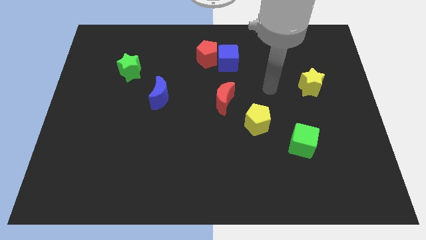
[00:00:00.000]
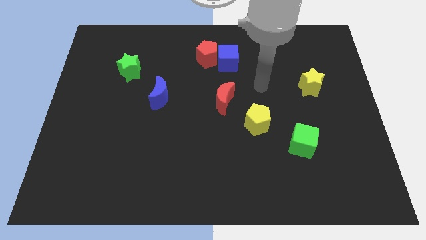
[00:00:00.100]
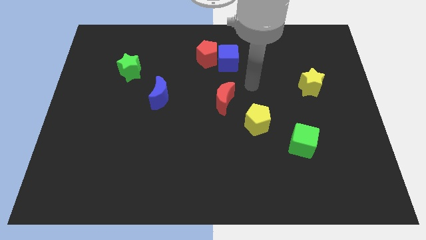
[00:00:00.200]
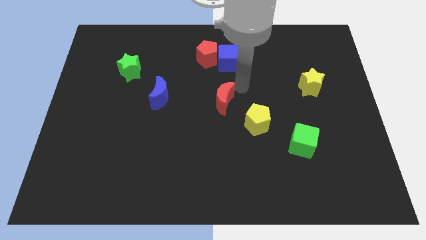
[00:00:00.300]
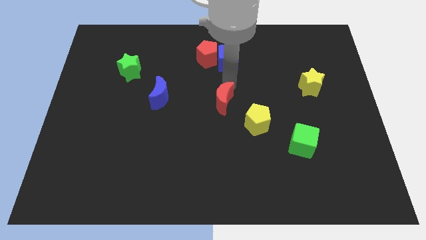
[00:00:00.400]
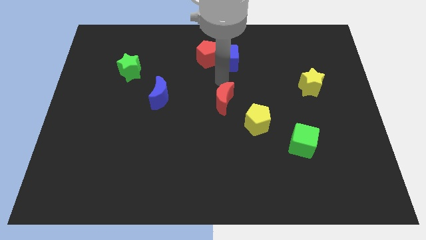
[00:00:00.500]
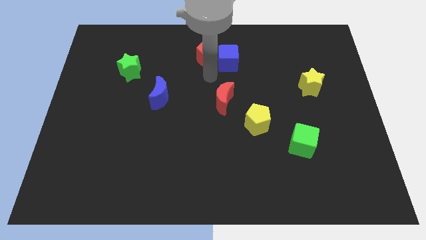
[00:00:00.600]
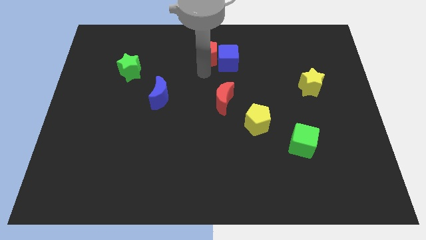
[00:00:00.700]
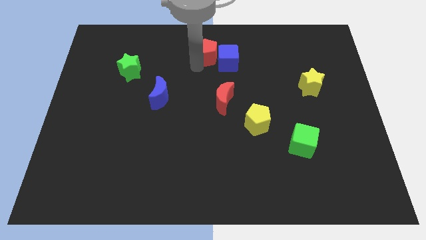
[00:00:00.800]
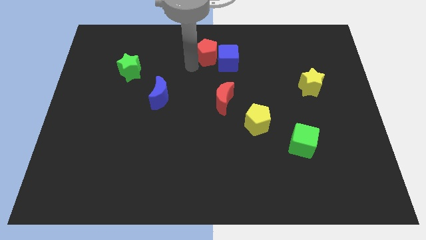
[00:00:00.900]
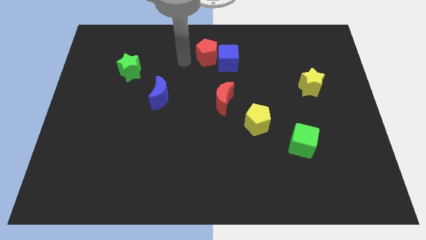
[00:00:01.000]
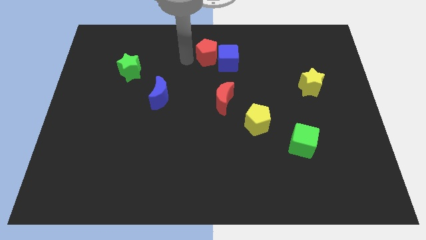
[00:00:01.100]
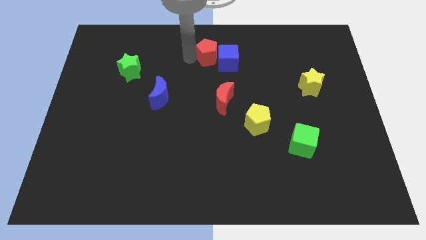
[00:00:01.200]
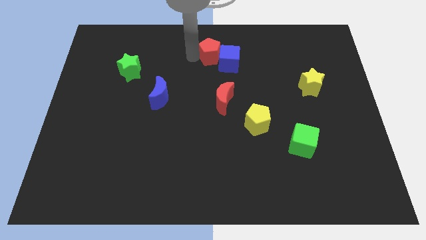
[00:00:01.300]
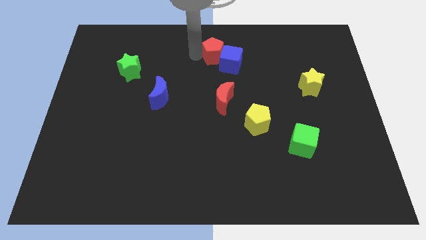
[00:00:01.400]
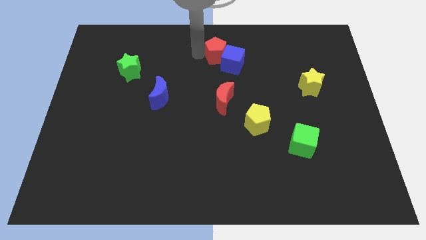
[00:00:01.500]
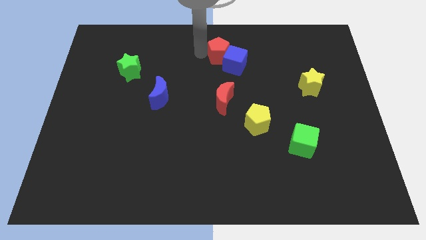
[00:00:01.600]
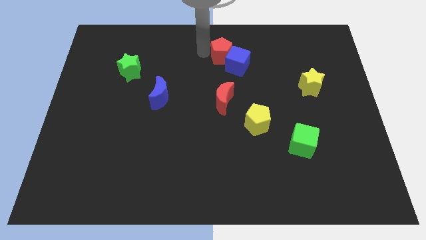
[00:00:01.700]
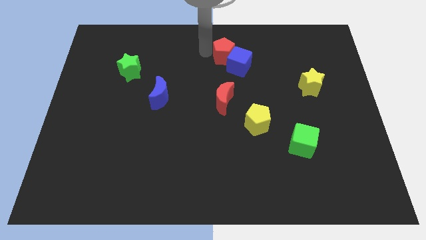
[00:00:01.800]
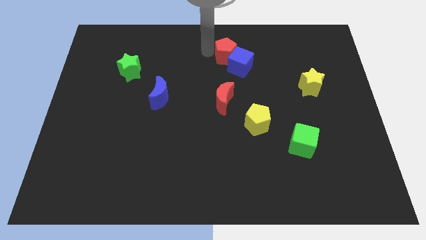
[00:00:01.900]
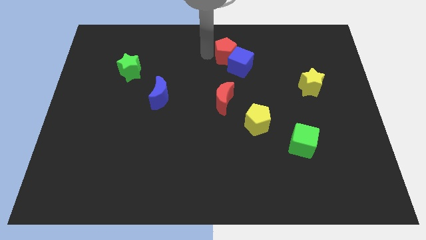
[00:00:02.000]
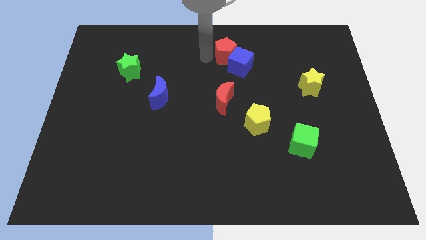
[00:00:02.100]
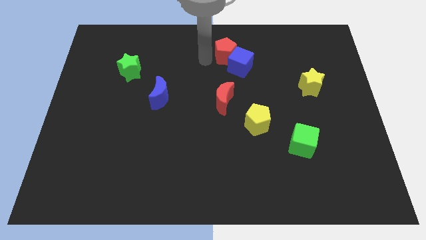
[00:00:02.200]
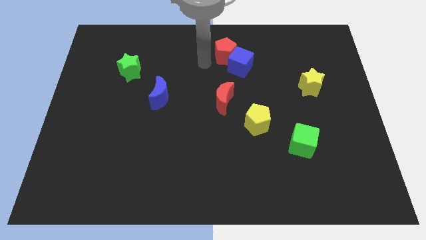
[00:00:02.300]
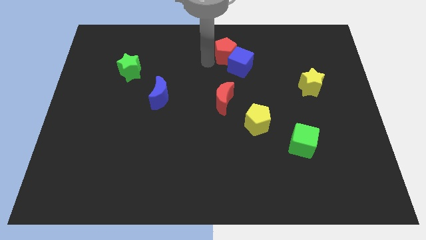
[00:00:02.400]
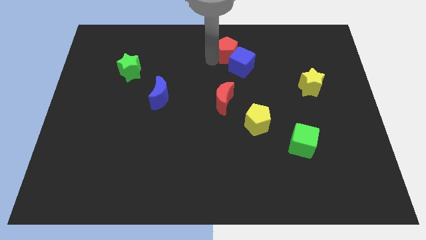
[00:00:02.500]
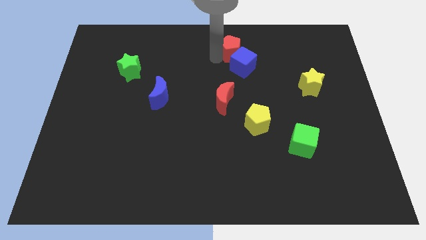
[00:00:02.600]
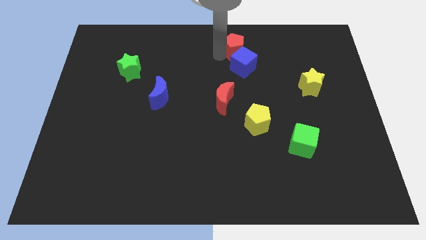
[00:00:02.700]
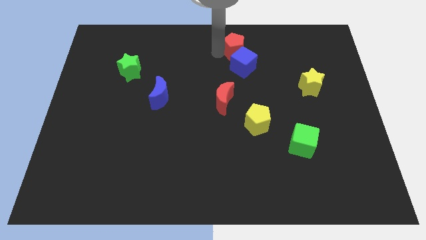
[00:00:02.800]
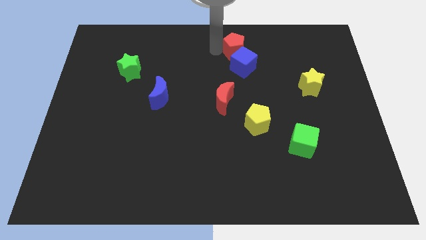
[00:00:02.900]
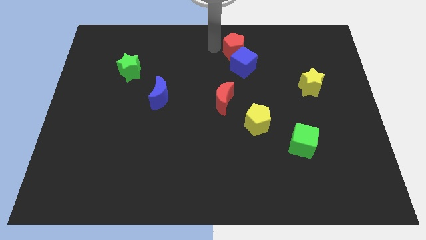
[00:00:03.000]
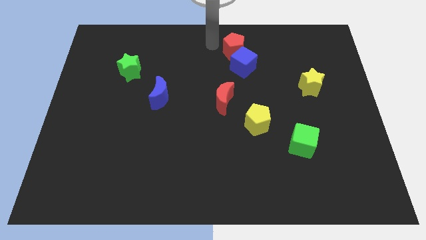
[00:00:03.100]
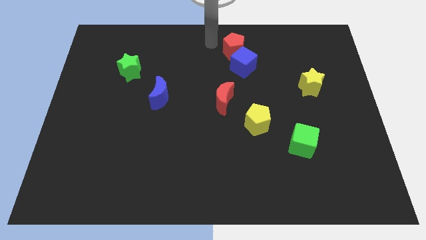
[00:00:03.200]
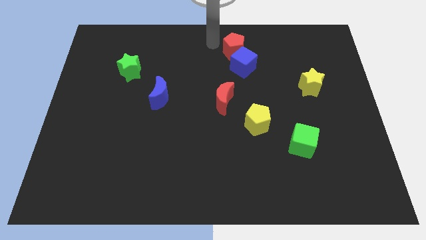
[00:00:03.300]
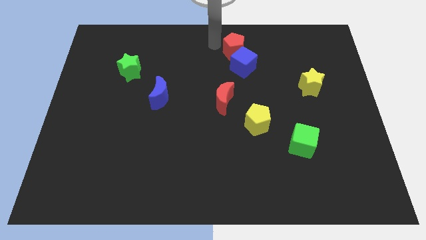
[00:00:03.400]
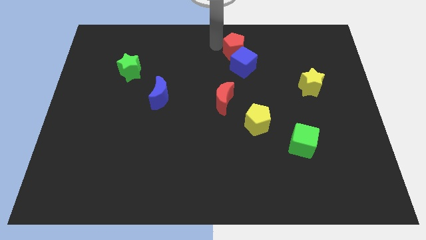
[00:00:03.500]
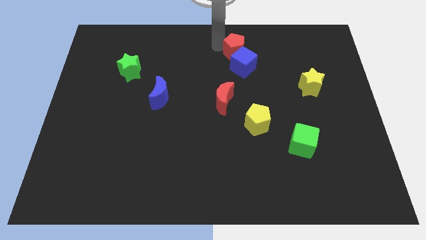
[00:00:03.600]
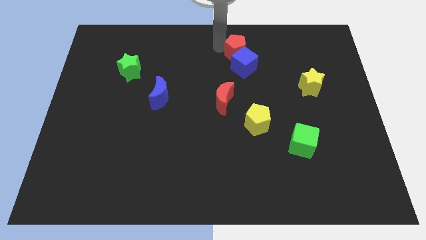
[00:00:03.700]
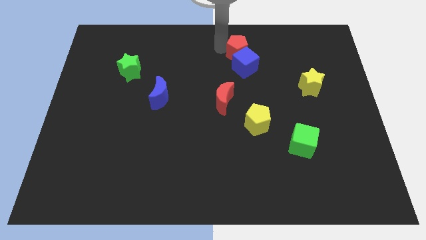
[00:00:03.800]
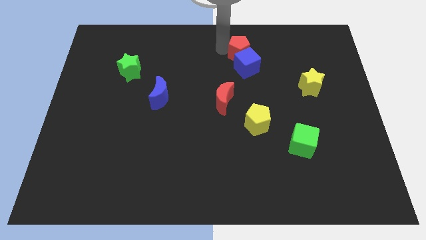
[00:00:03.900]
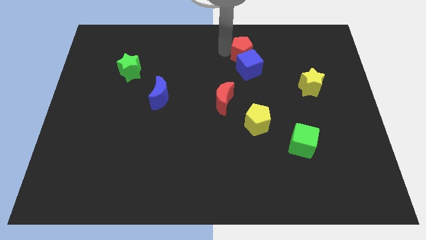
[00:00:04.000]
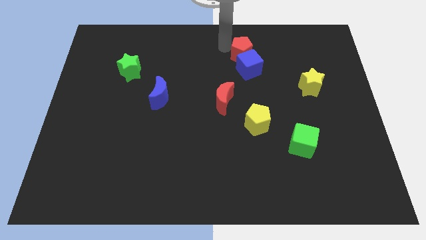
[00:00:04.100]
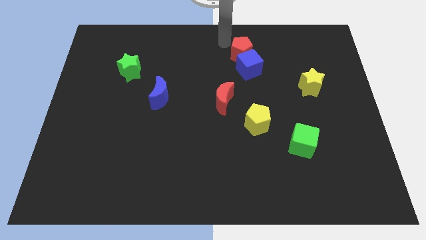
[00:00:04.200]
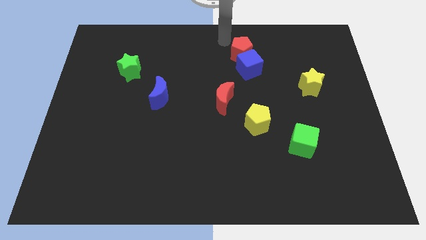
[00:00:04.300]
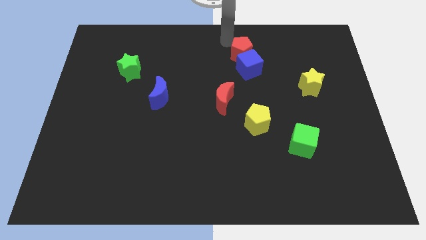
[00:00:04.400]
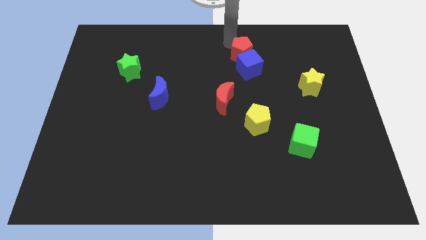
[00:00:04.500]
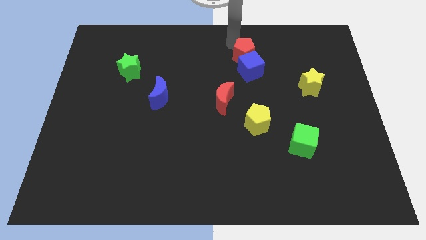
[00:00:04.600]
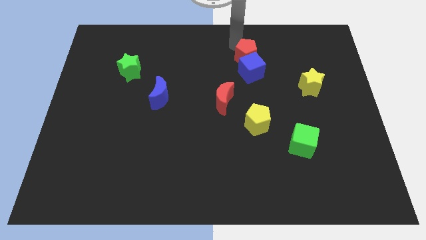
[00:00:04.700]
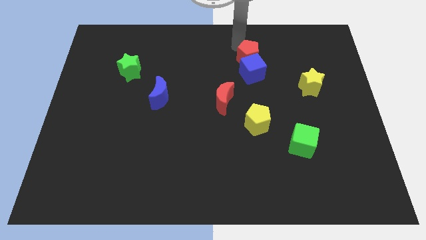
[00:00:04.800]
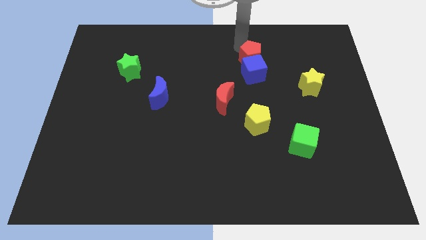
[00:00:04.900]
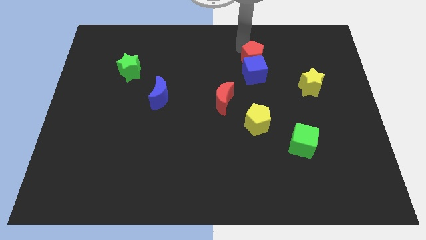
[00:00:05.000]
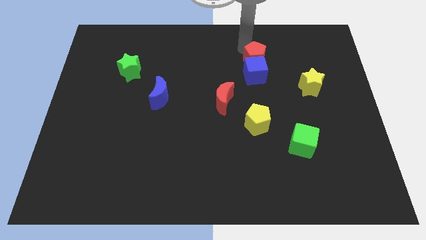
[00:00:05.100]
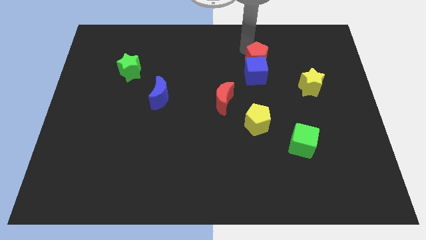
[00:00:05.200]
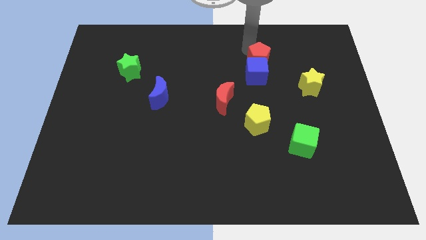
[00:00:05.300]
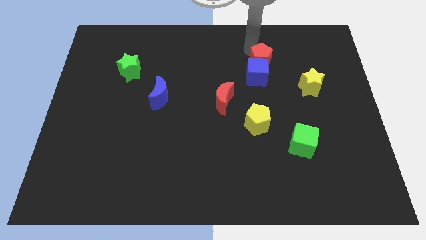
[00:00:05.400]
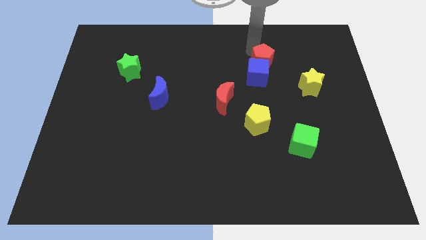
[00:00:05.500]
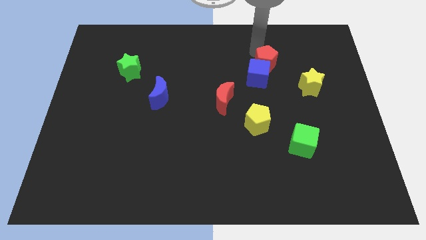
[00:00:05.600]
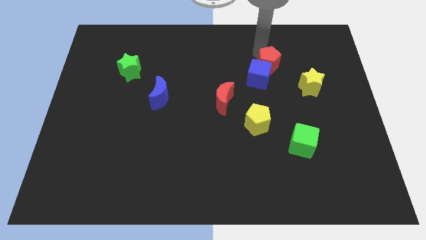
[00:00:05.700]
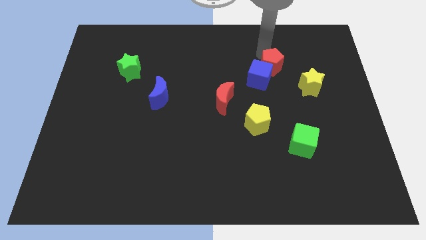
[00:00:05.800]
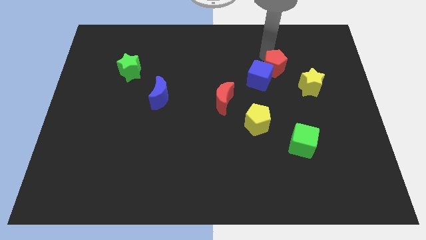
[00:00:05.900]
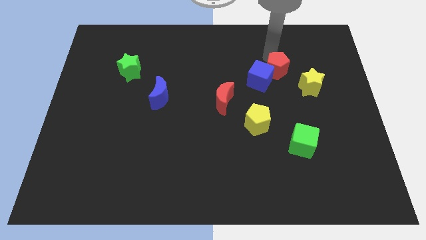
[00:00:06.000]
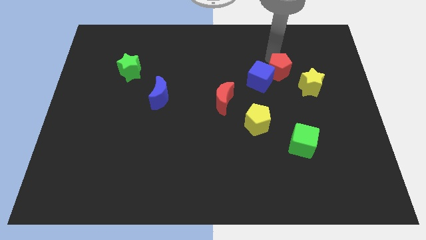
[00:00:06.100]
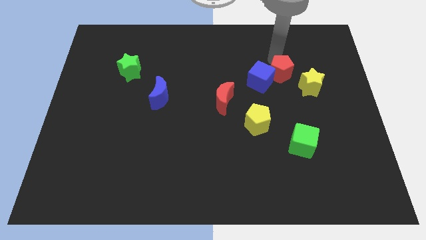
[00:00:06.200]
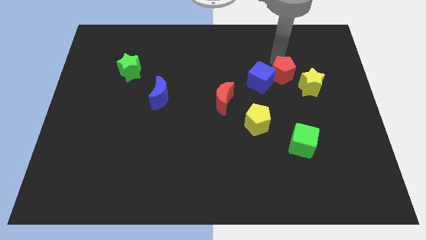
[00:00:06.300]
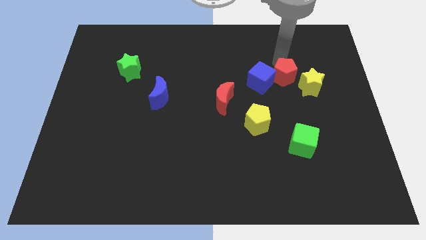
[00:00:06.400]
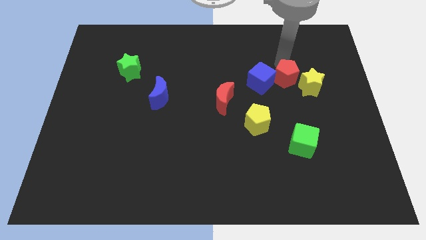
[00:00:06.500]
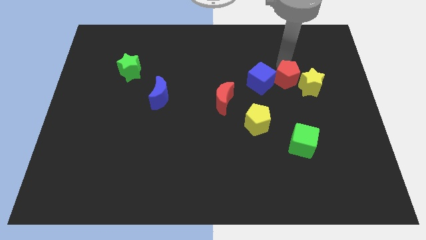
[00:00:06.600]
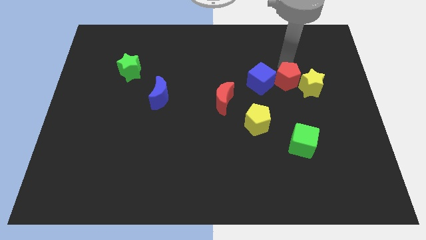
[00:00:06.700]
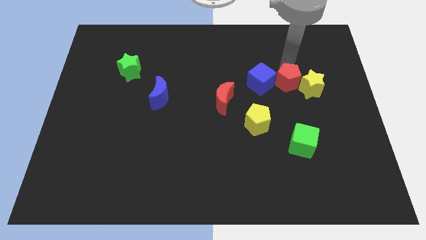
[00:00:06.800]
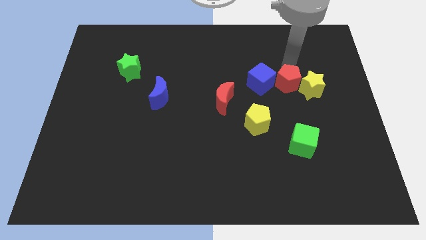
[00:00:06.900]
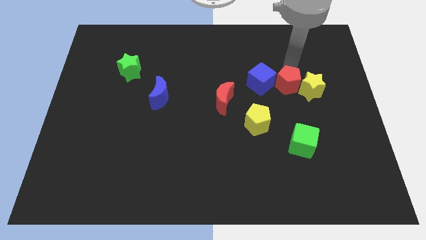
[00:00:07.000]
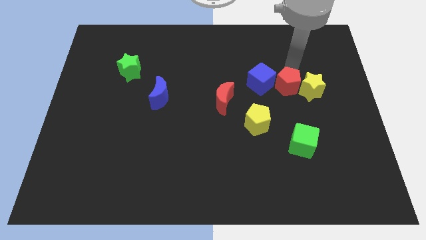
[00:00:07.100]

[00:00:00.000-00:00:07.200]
slide the red pentagon to the bottom left side of the yellow star

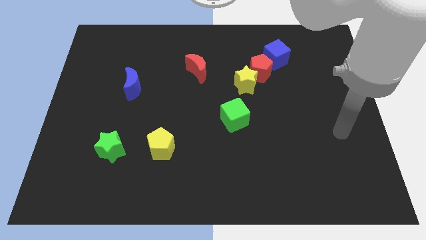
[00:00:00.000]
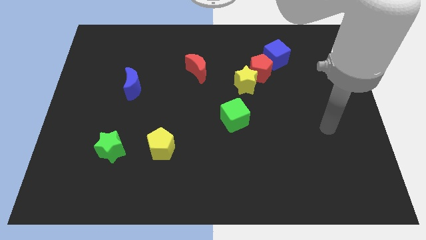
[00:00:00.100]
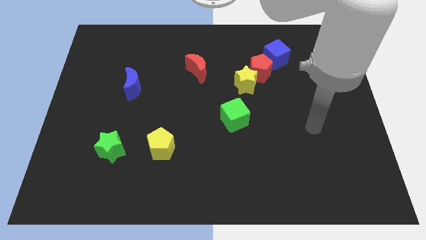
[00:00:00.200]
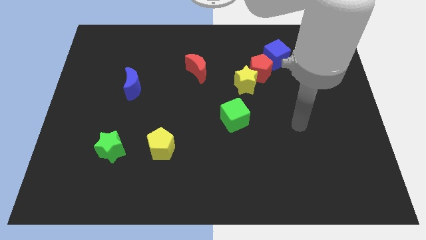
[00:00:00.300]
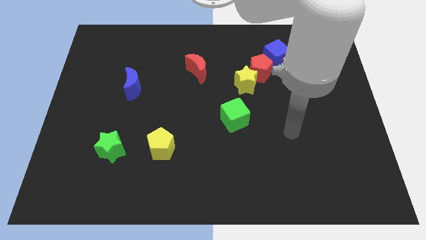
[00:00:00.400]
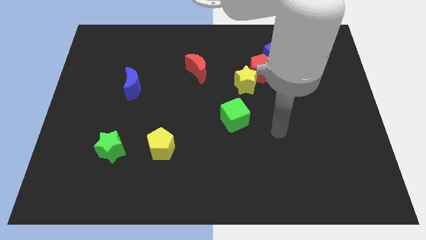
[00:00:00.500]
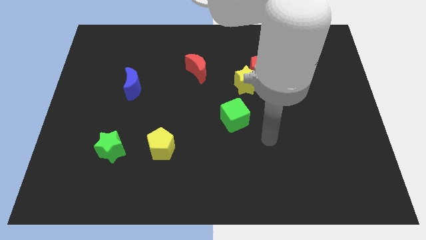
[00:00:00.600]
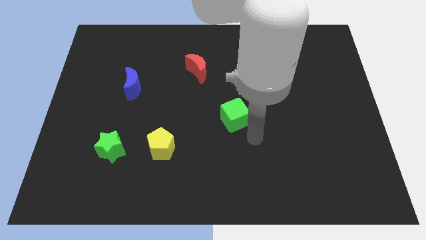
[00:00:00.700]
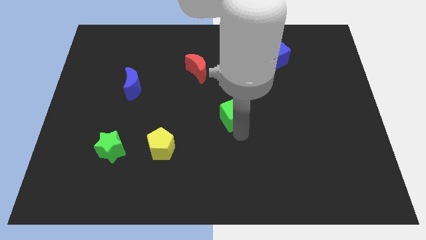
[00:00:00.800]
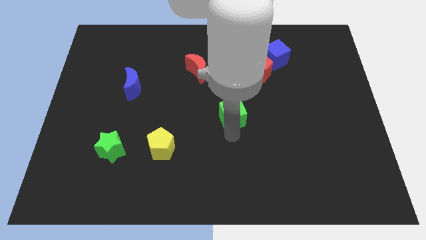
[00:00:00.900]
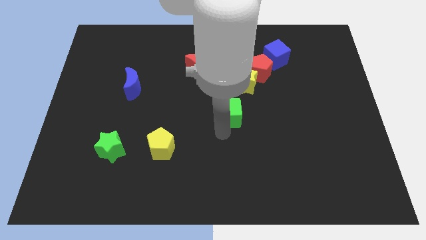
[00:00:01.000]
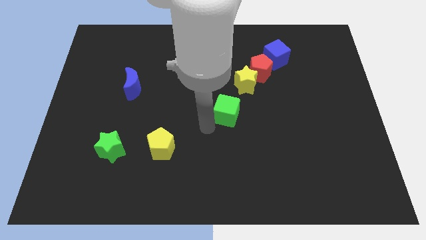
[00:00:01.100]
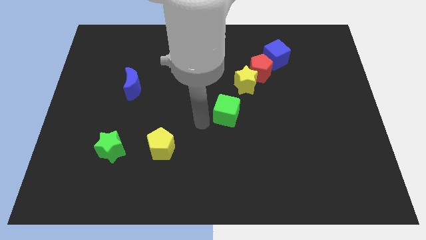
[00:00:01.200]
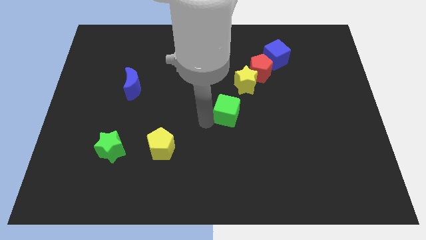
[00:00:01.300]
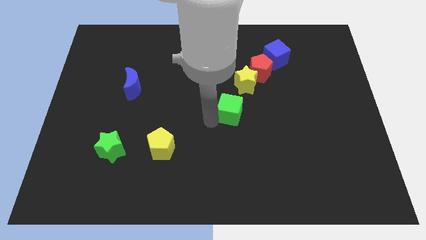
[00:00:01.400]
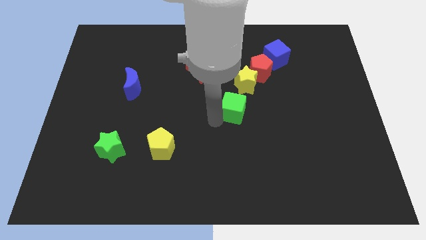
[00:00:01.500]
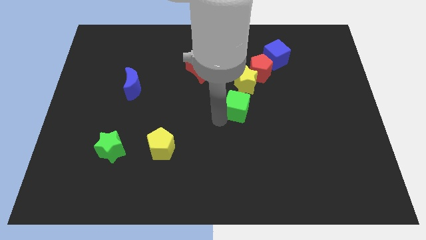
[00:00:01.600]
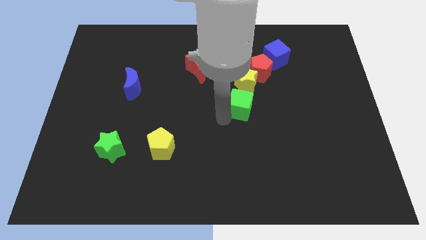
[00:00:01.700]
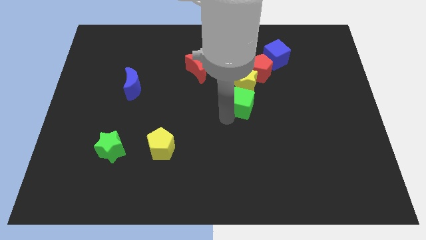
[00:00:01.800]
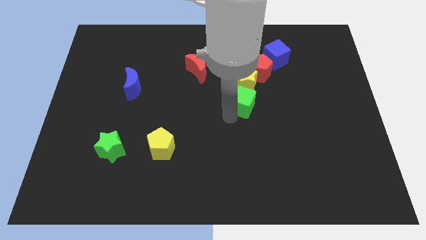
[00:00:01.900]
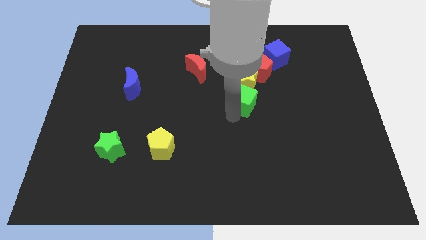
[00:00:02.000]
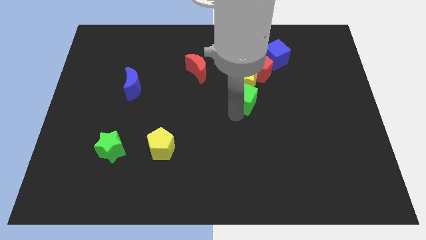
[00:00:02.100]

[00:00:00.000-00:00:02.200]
slide the green cube to the bottom right side of the yellow star
